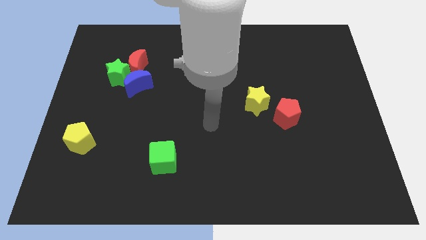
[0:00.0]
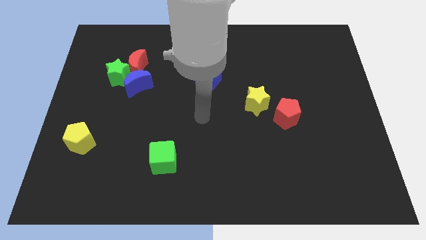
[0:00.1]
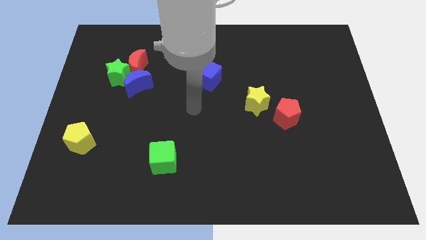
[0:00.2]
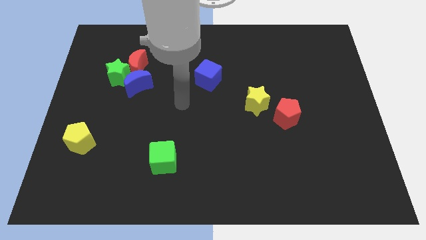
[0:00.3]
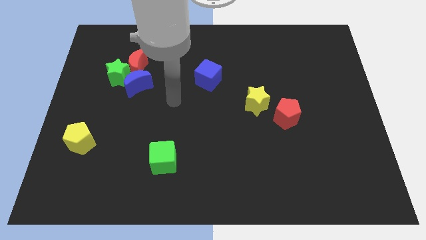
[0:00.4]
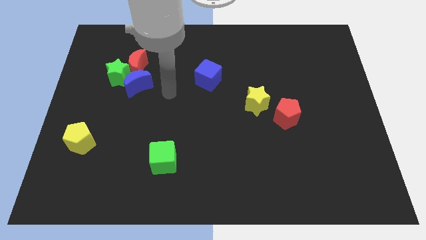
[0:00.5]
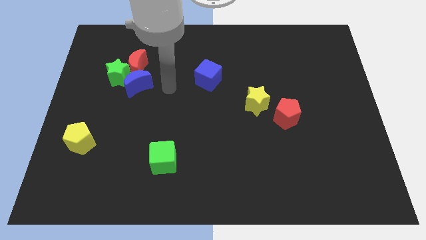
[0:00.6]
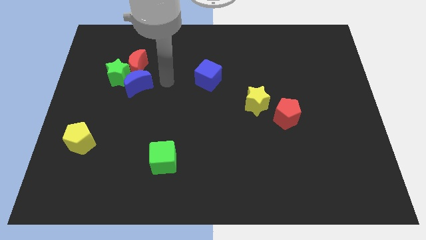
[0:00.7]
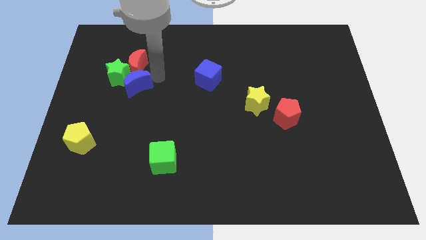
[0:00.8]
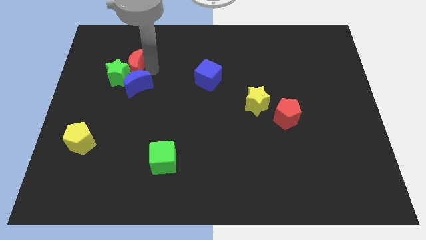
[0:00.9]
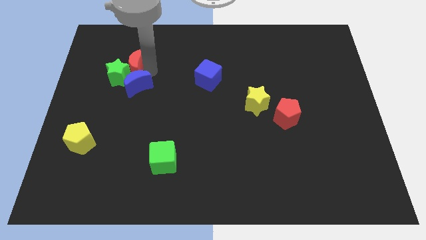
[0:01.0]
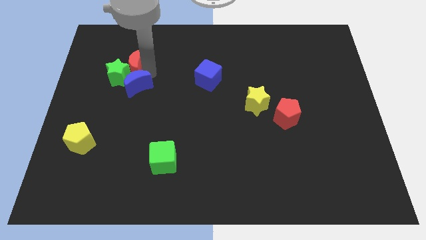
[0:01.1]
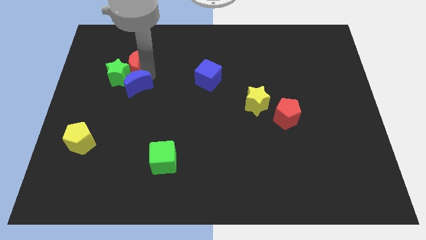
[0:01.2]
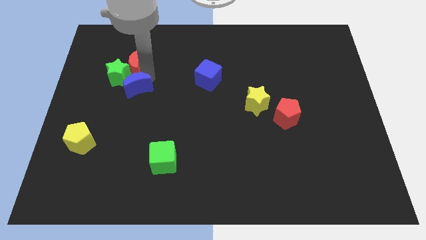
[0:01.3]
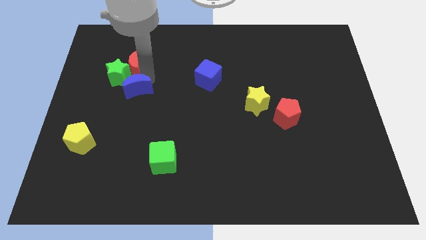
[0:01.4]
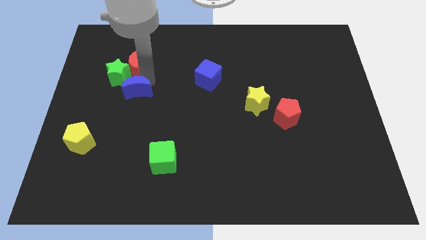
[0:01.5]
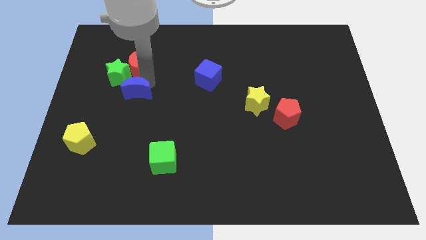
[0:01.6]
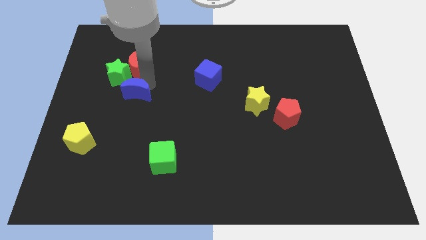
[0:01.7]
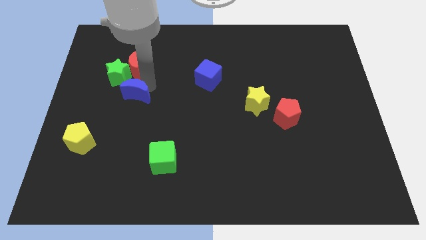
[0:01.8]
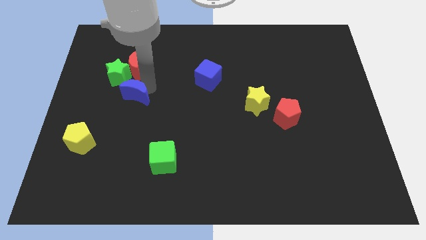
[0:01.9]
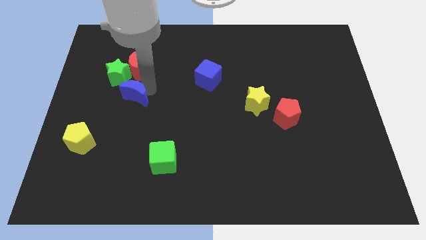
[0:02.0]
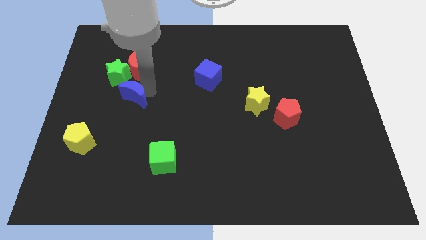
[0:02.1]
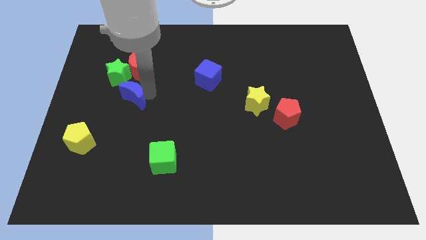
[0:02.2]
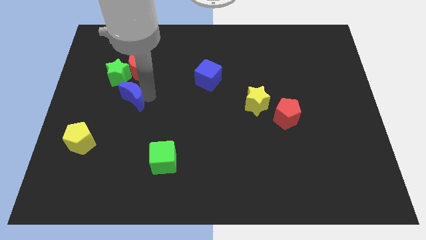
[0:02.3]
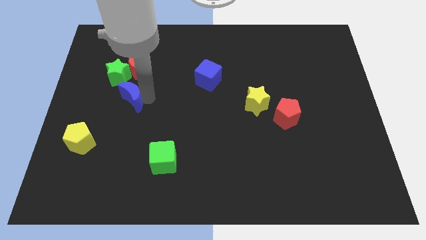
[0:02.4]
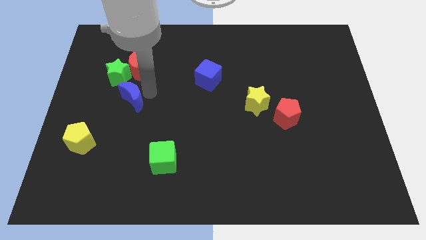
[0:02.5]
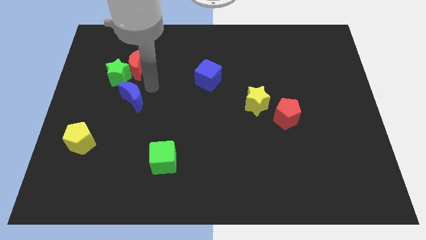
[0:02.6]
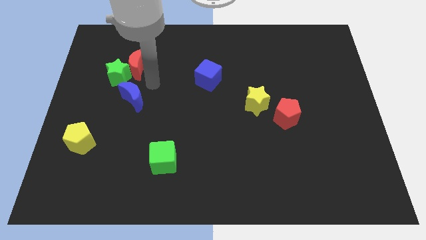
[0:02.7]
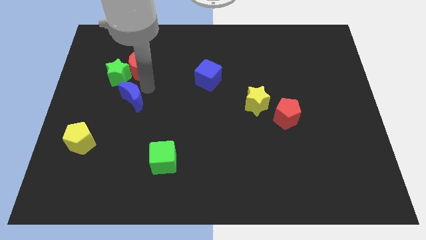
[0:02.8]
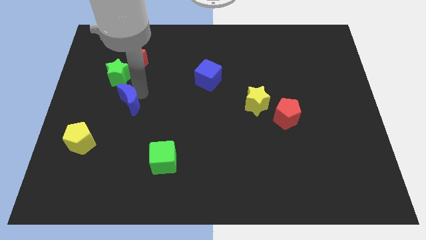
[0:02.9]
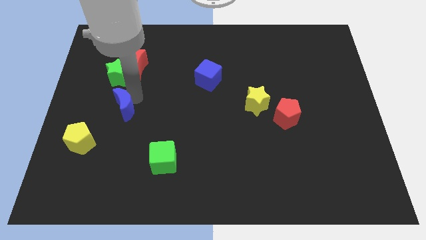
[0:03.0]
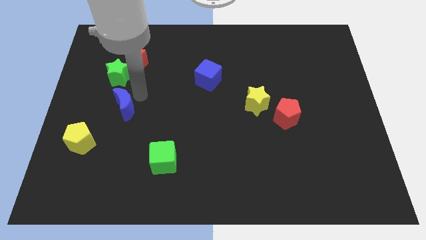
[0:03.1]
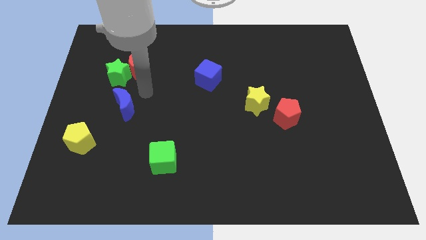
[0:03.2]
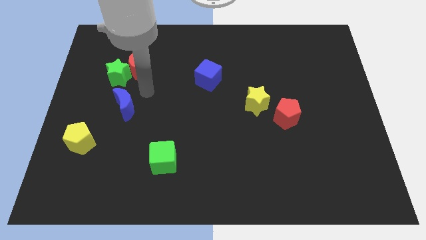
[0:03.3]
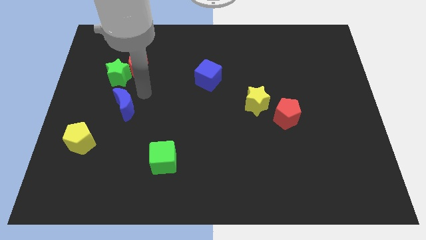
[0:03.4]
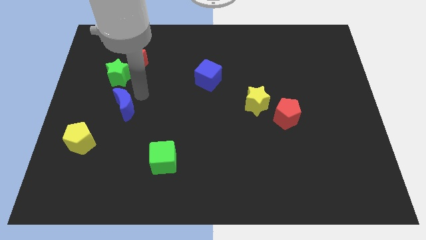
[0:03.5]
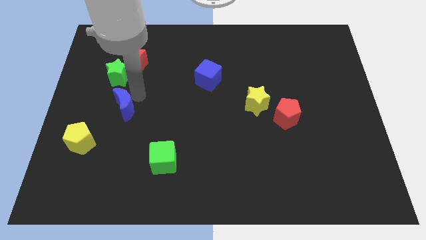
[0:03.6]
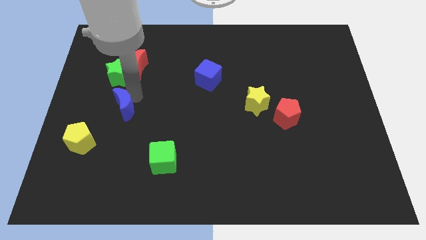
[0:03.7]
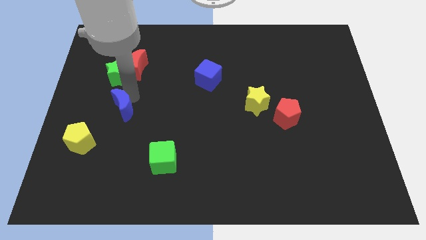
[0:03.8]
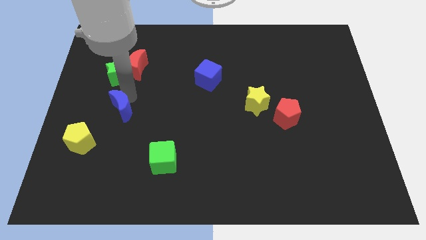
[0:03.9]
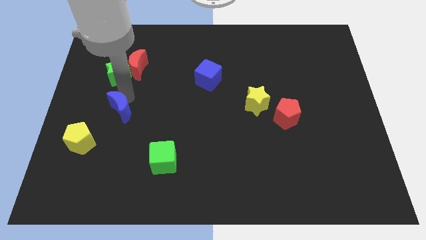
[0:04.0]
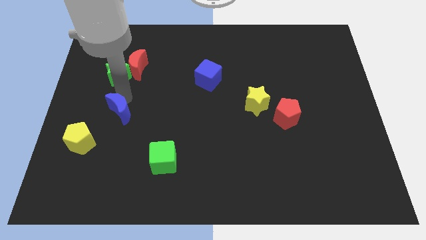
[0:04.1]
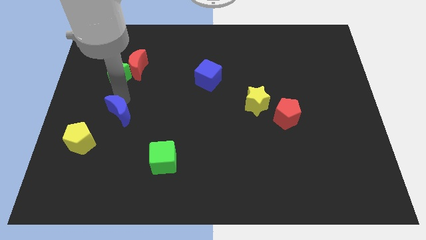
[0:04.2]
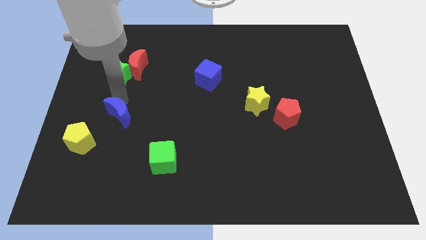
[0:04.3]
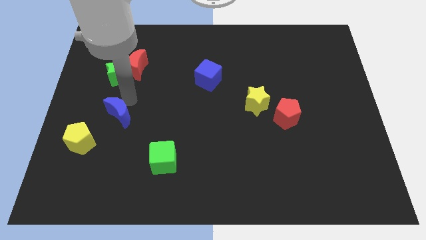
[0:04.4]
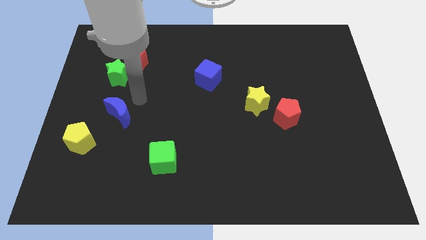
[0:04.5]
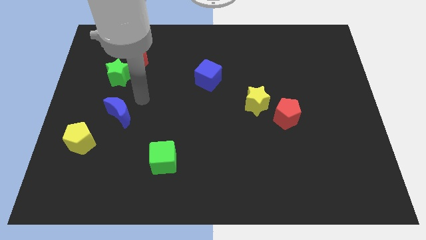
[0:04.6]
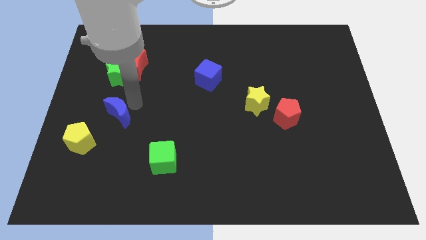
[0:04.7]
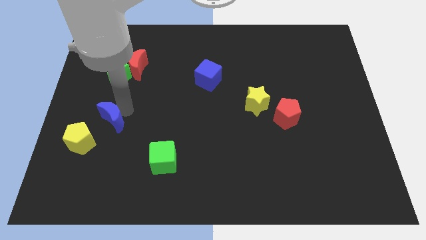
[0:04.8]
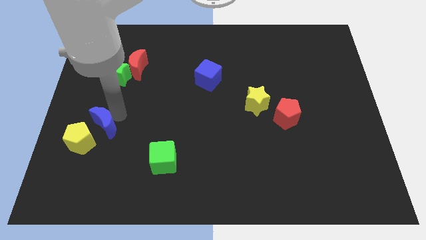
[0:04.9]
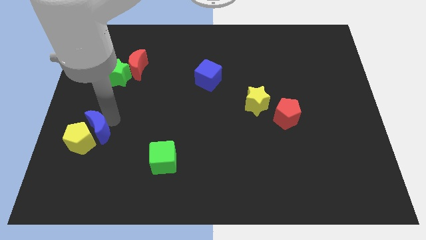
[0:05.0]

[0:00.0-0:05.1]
slide the blue moon to the yellow pentagon

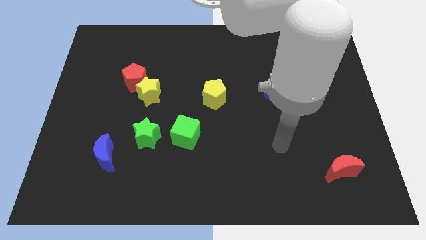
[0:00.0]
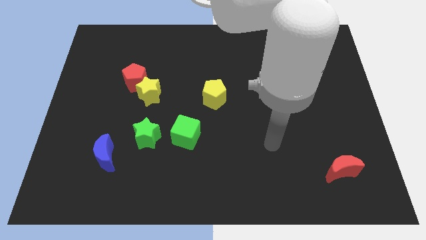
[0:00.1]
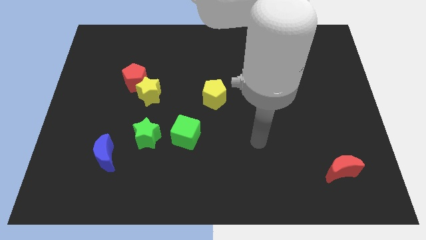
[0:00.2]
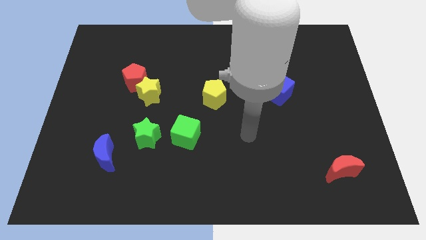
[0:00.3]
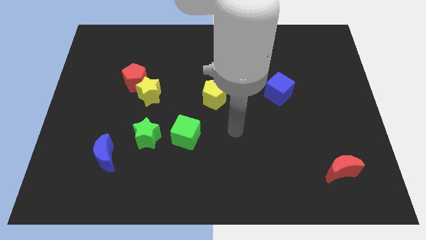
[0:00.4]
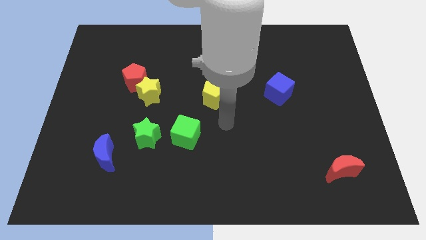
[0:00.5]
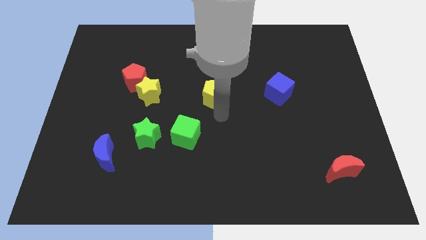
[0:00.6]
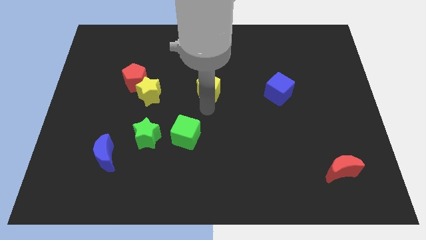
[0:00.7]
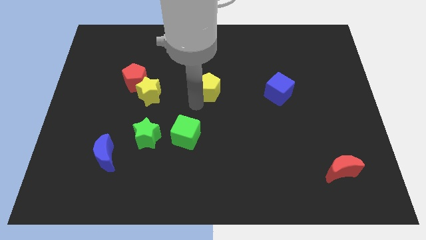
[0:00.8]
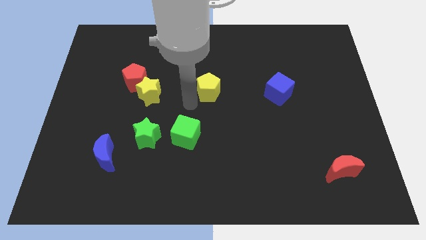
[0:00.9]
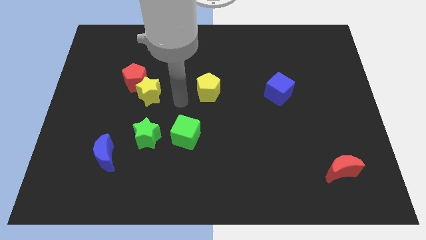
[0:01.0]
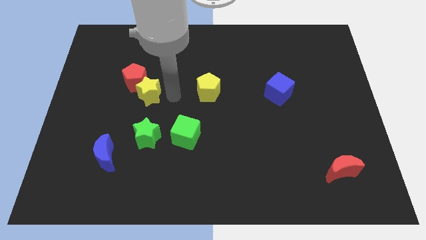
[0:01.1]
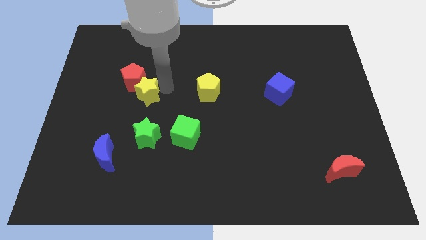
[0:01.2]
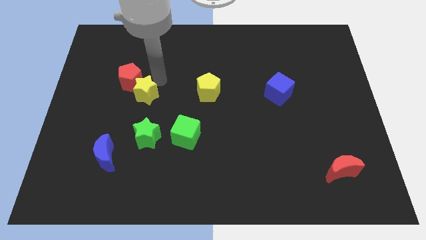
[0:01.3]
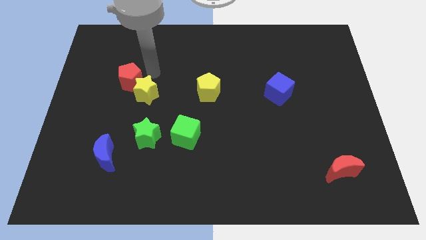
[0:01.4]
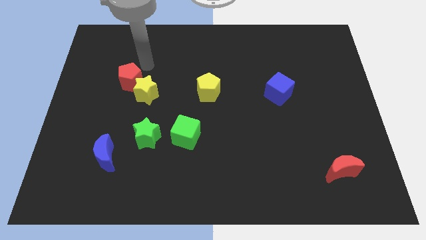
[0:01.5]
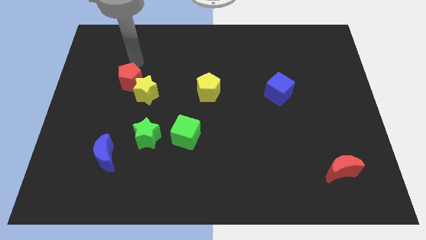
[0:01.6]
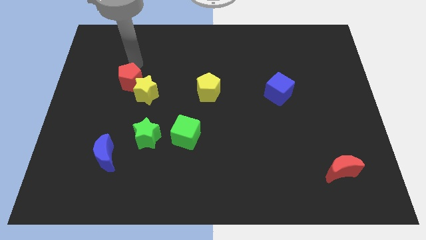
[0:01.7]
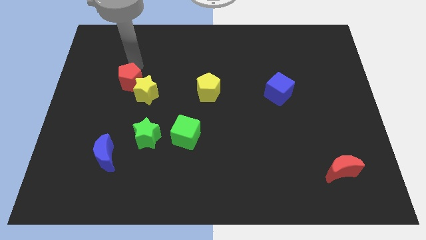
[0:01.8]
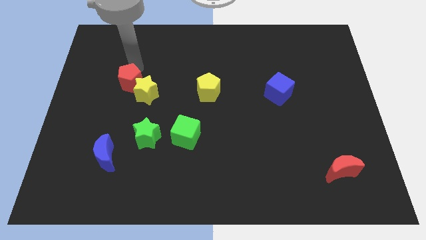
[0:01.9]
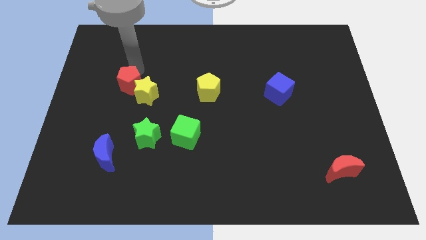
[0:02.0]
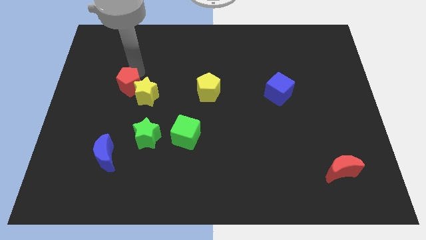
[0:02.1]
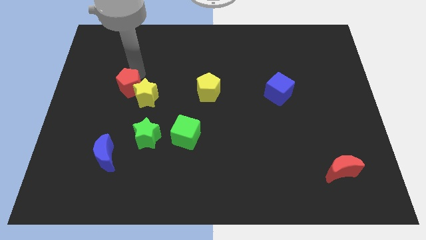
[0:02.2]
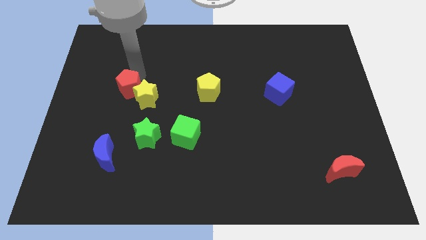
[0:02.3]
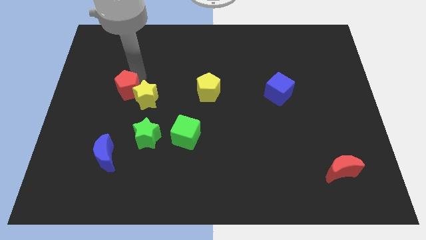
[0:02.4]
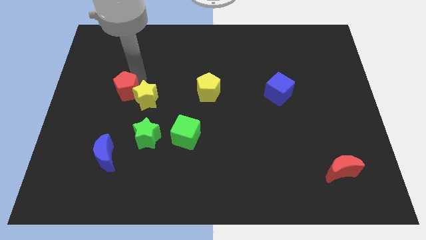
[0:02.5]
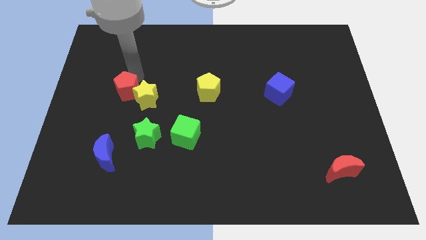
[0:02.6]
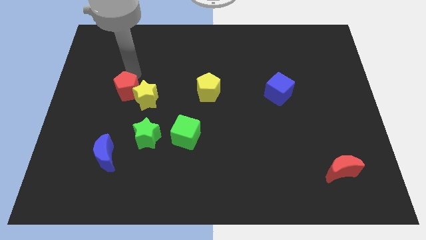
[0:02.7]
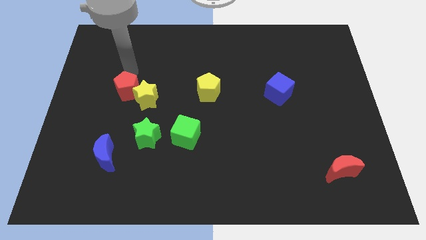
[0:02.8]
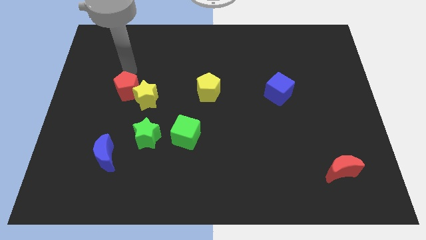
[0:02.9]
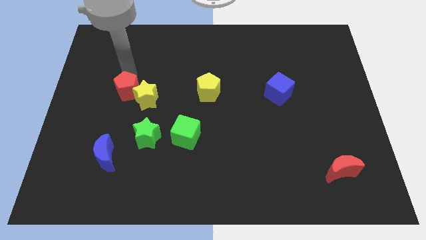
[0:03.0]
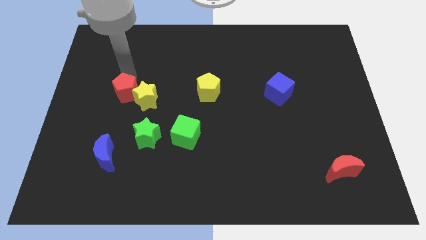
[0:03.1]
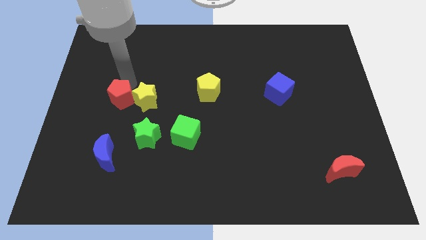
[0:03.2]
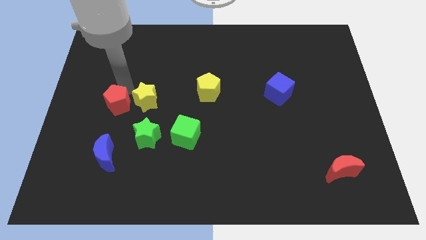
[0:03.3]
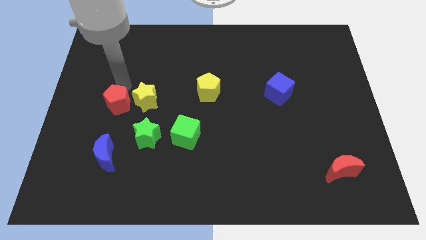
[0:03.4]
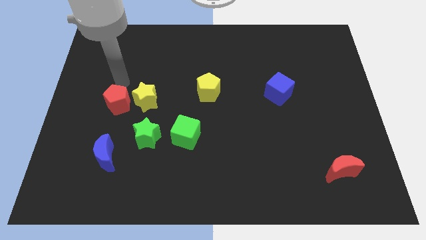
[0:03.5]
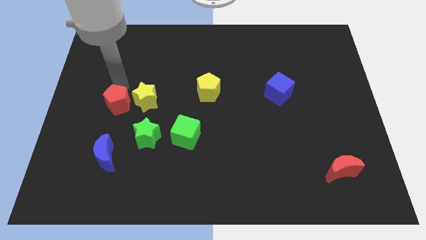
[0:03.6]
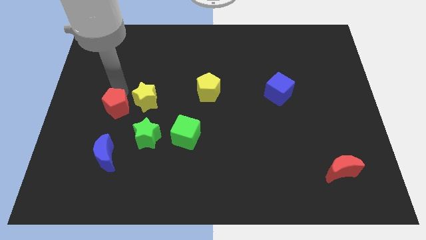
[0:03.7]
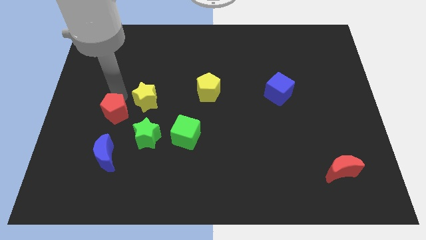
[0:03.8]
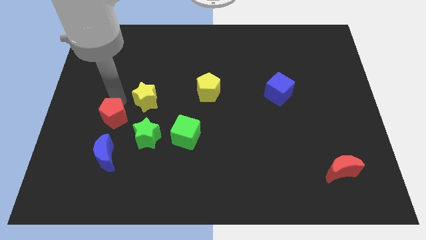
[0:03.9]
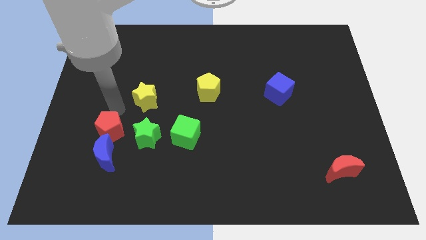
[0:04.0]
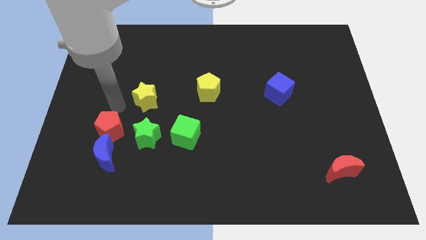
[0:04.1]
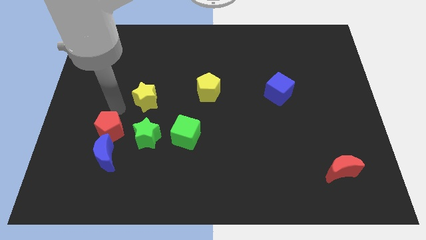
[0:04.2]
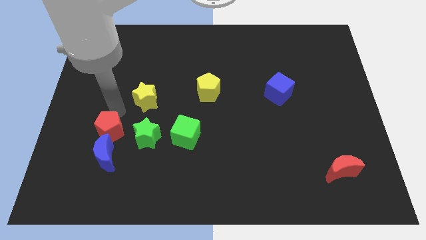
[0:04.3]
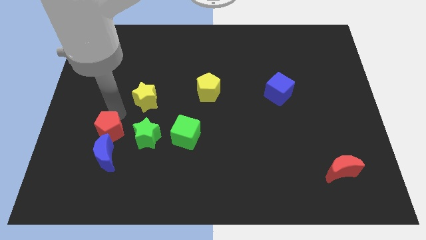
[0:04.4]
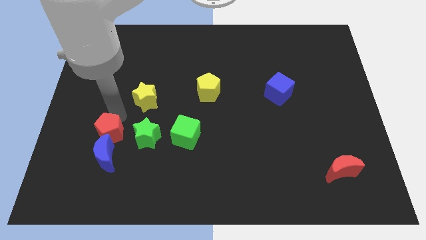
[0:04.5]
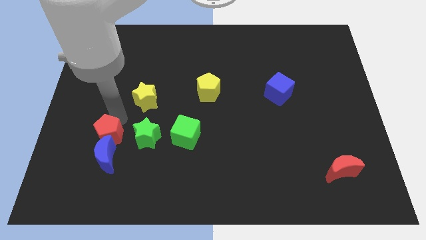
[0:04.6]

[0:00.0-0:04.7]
push the red pentagon next to the blue moon
